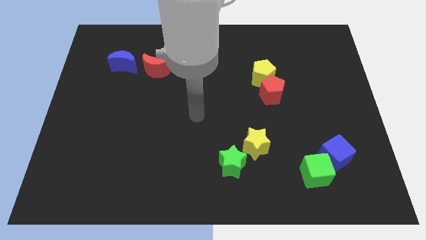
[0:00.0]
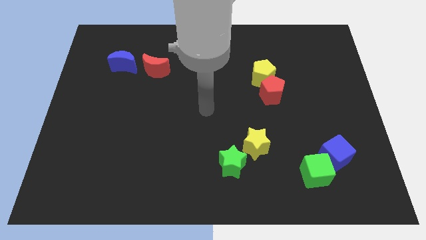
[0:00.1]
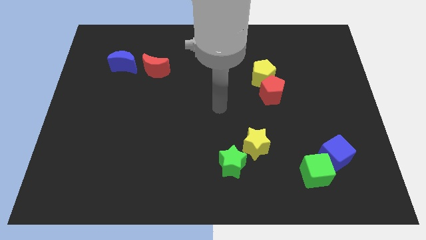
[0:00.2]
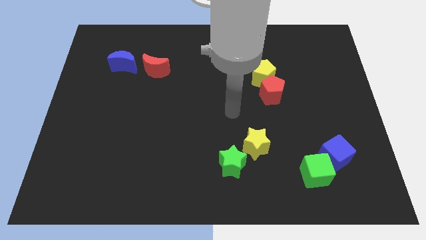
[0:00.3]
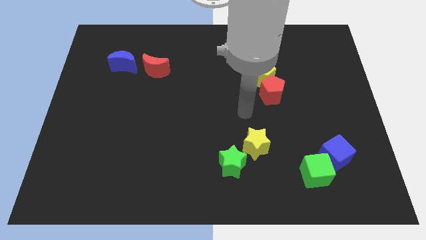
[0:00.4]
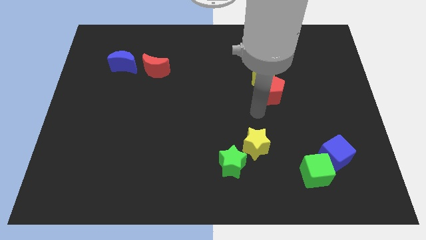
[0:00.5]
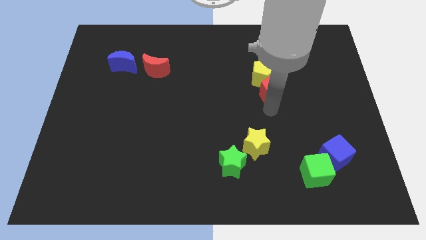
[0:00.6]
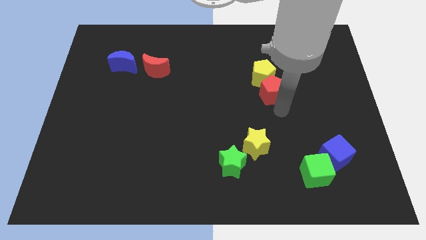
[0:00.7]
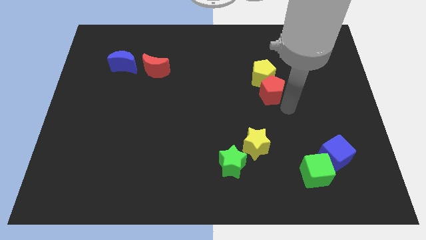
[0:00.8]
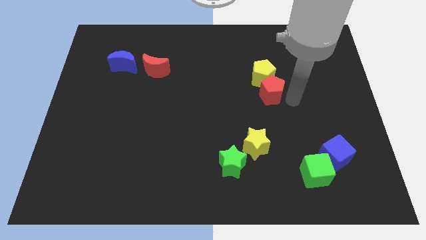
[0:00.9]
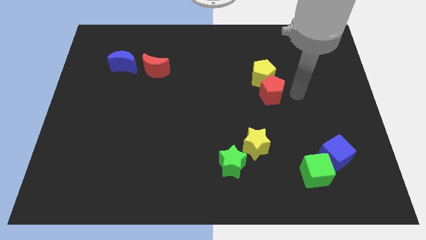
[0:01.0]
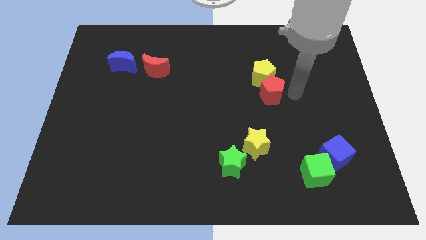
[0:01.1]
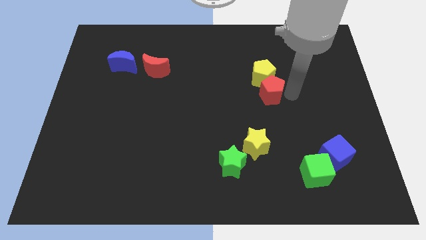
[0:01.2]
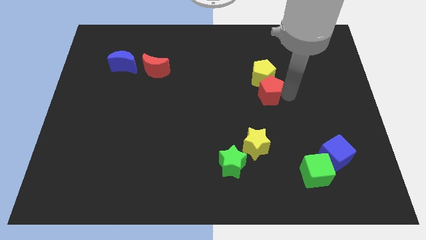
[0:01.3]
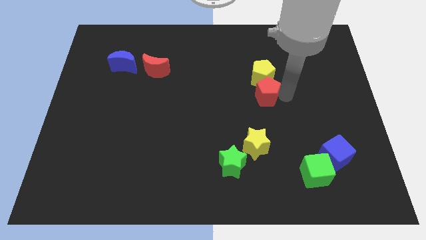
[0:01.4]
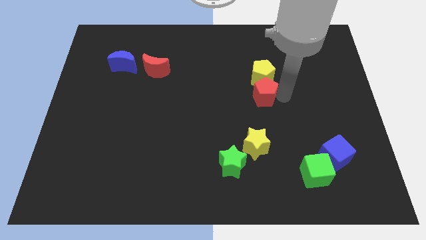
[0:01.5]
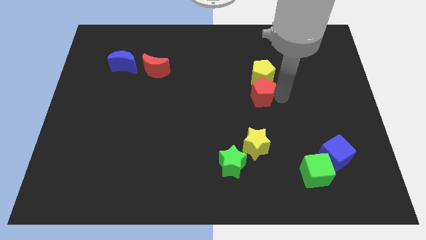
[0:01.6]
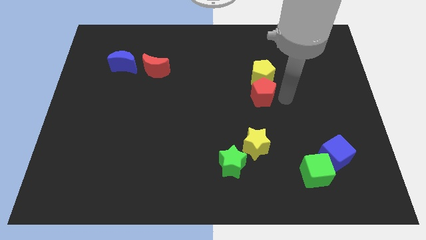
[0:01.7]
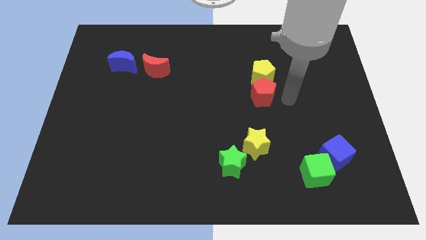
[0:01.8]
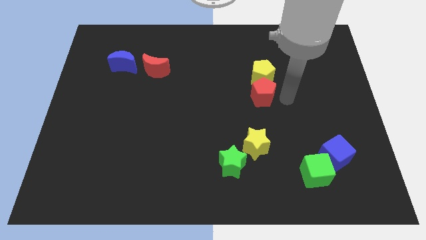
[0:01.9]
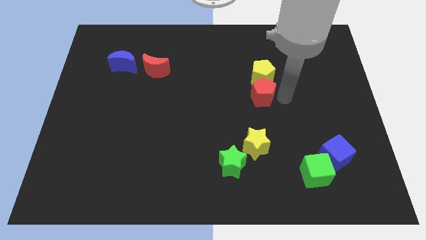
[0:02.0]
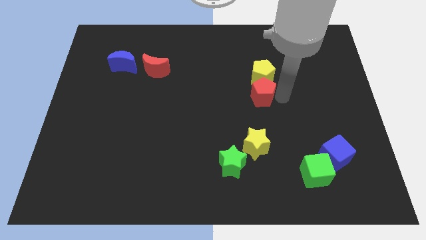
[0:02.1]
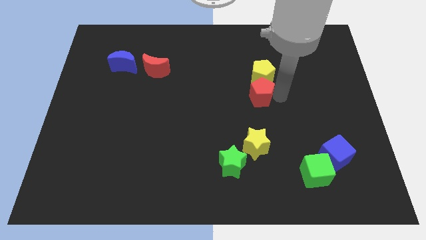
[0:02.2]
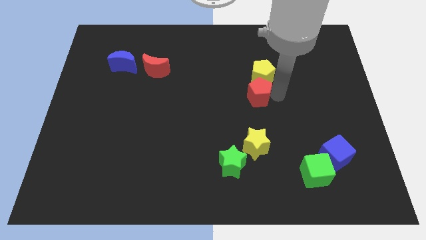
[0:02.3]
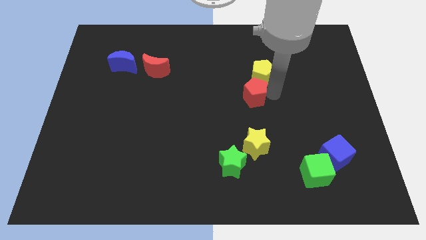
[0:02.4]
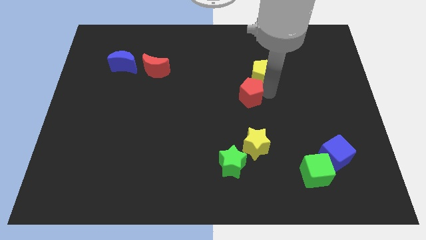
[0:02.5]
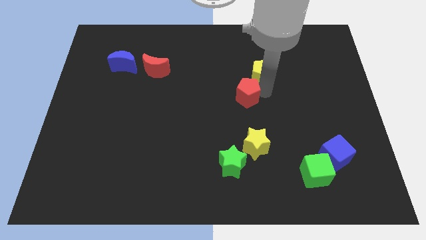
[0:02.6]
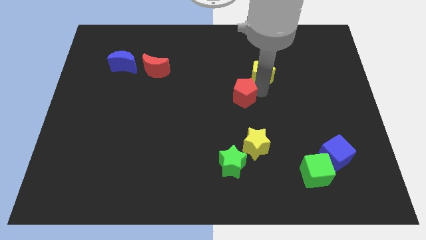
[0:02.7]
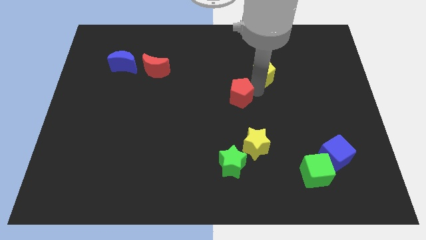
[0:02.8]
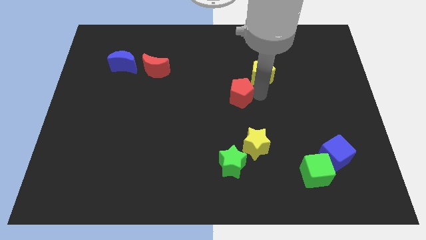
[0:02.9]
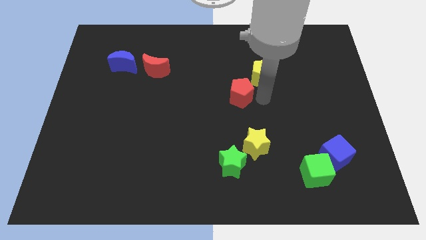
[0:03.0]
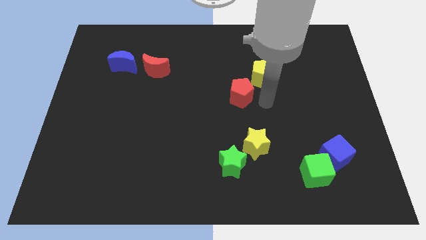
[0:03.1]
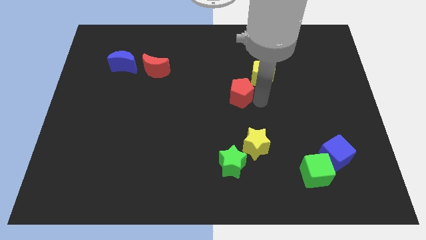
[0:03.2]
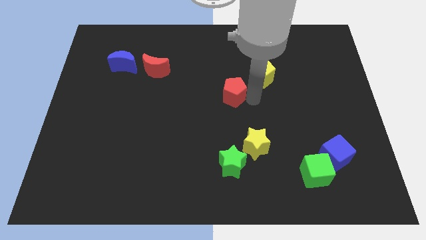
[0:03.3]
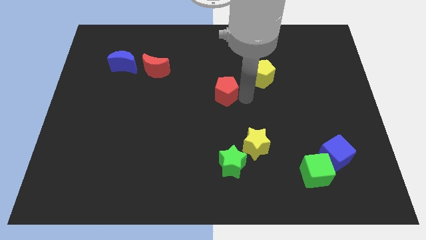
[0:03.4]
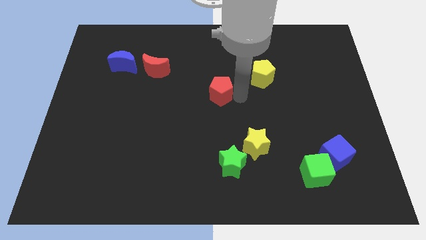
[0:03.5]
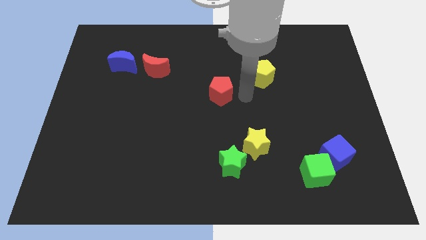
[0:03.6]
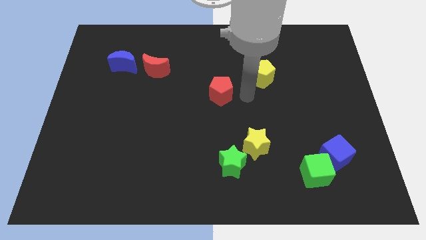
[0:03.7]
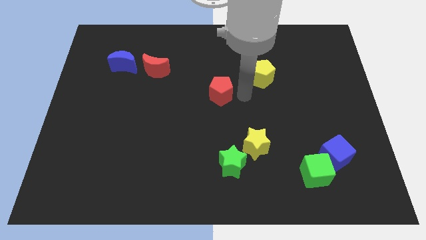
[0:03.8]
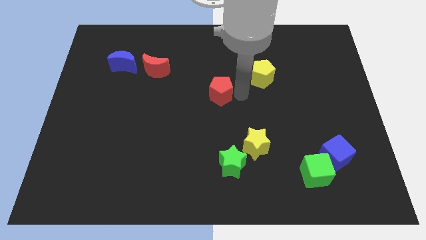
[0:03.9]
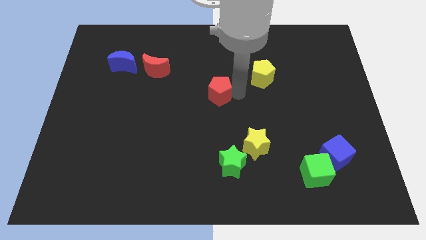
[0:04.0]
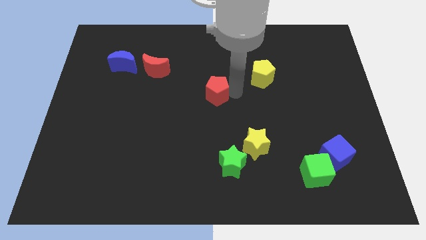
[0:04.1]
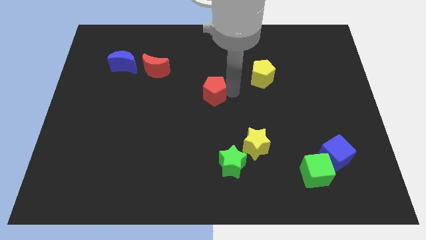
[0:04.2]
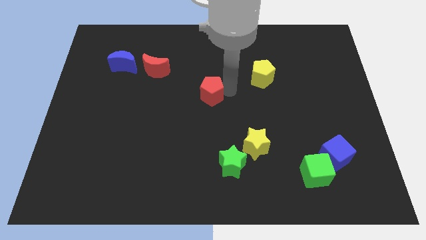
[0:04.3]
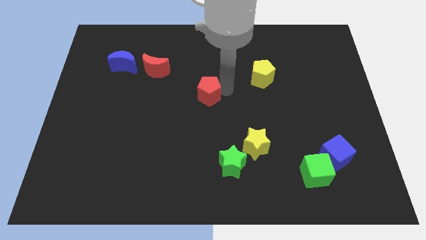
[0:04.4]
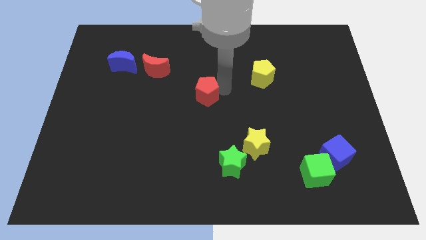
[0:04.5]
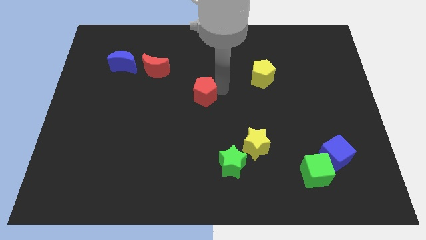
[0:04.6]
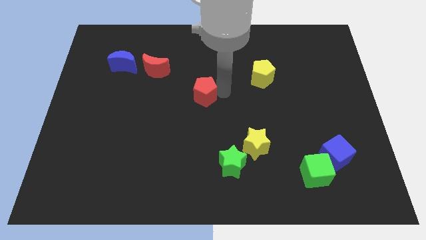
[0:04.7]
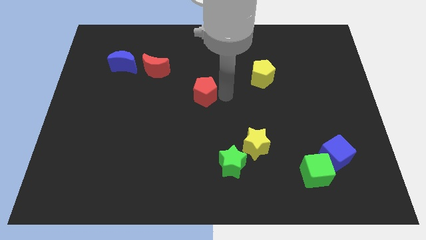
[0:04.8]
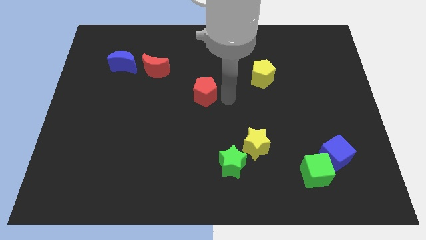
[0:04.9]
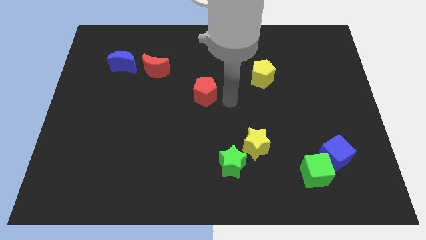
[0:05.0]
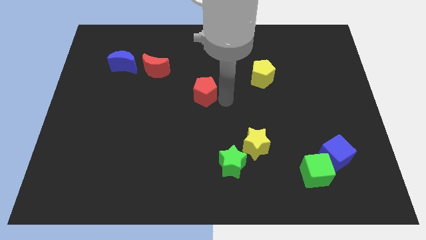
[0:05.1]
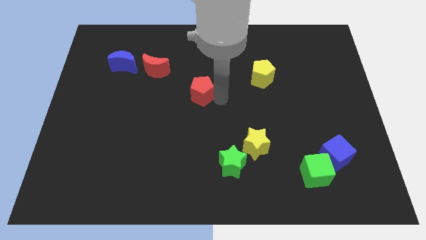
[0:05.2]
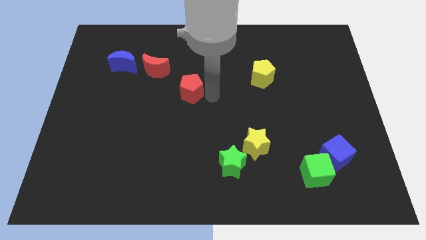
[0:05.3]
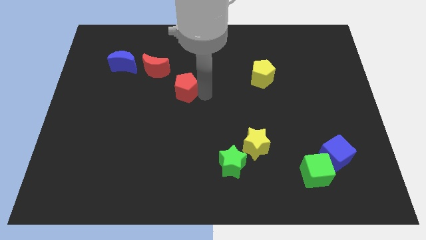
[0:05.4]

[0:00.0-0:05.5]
slide the red pentagon to the left

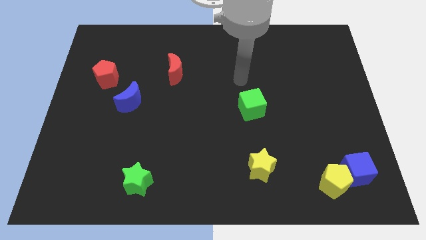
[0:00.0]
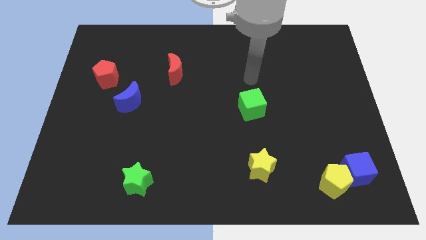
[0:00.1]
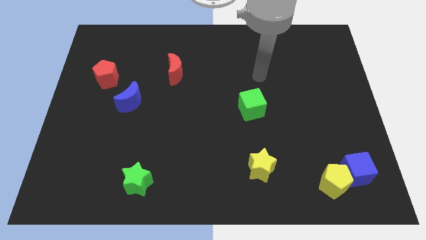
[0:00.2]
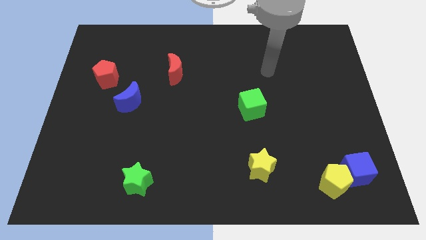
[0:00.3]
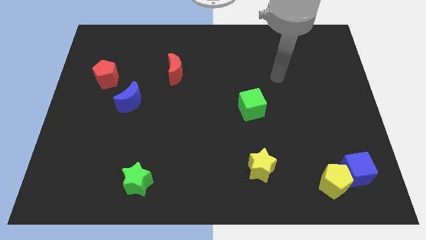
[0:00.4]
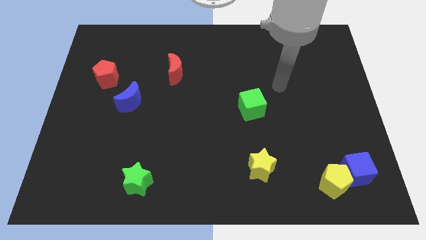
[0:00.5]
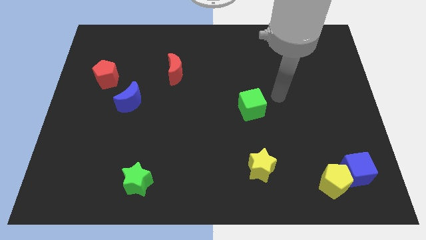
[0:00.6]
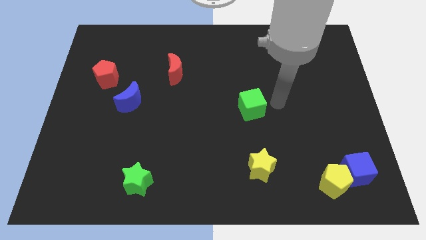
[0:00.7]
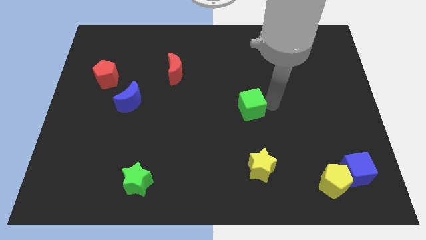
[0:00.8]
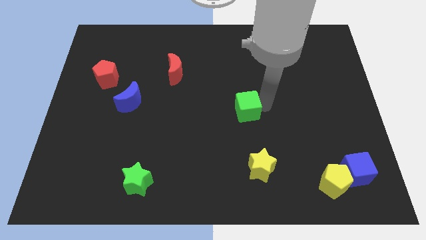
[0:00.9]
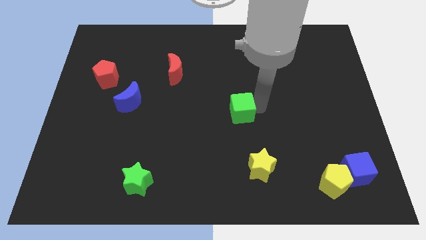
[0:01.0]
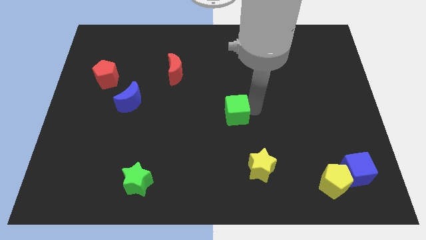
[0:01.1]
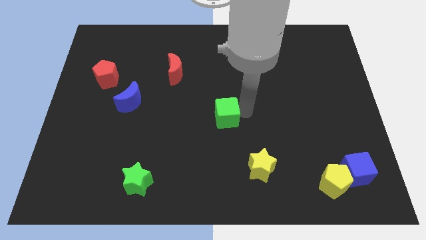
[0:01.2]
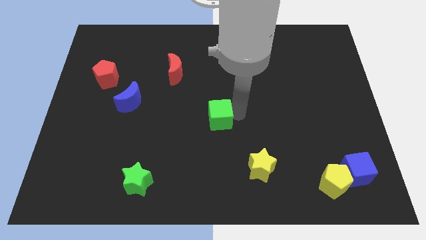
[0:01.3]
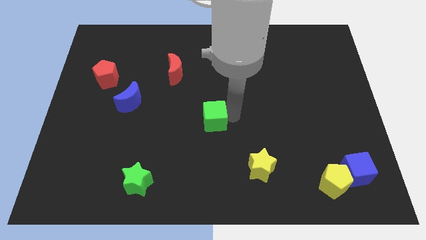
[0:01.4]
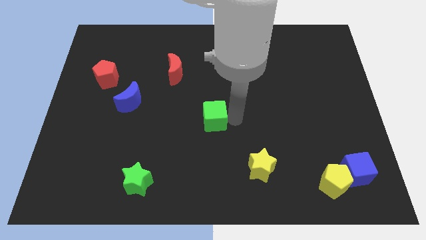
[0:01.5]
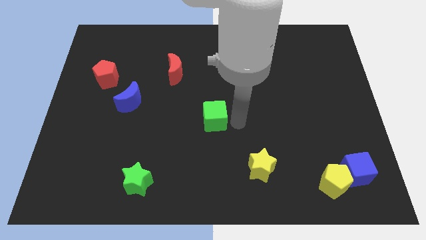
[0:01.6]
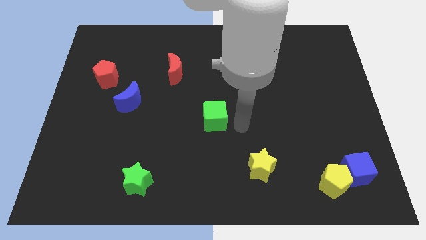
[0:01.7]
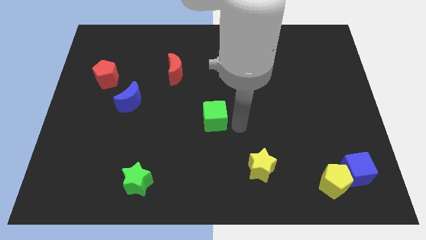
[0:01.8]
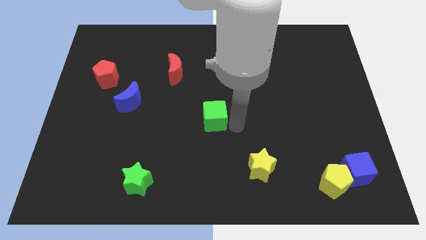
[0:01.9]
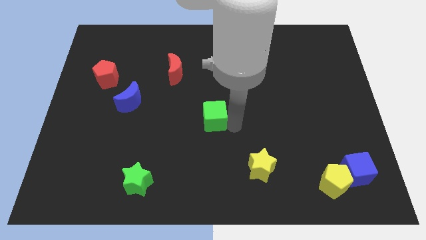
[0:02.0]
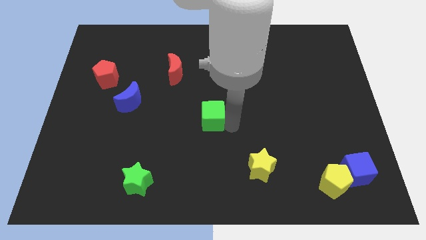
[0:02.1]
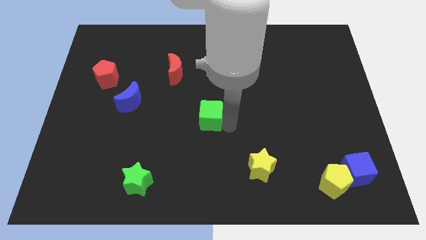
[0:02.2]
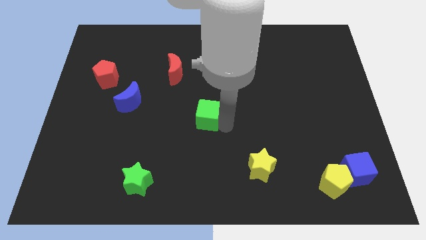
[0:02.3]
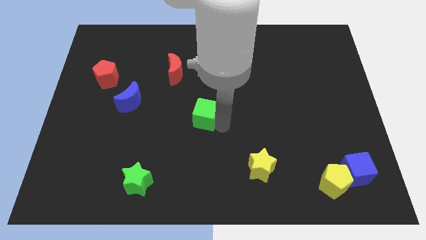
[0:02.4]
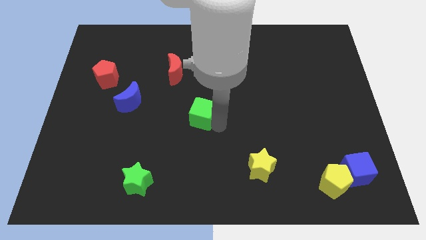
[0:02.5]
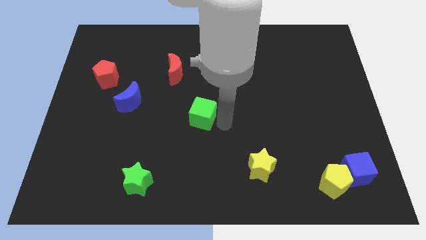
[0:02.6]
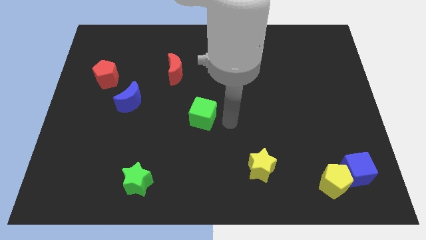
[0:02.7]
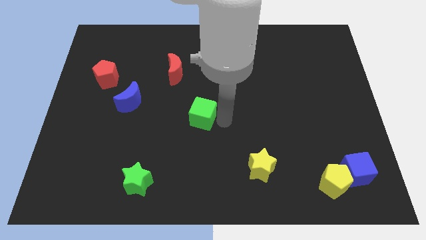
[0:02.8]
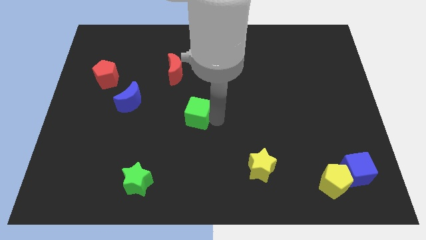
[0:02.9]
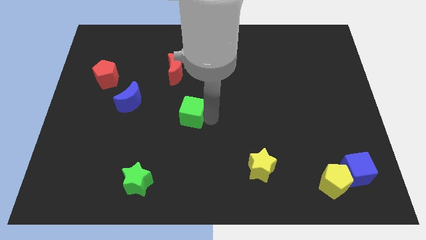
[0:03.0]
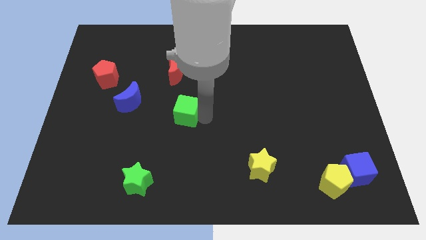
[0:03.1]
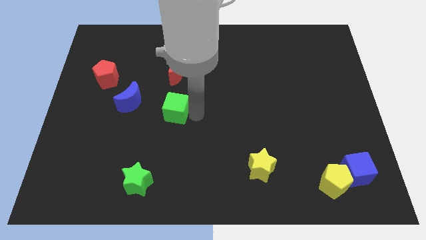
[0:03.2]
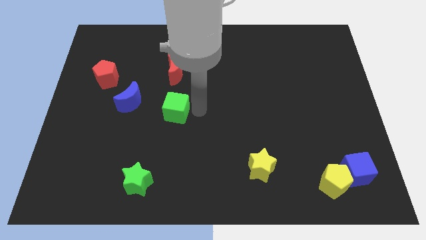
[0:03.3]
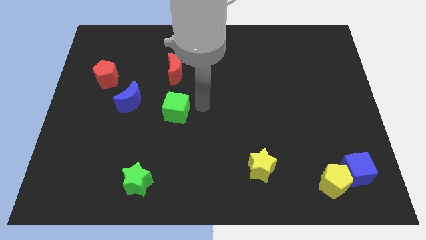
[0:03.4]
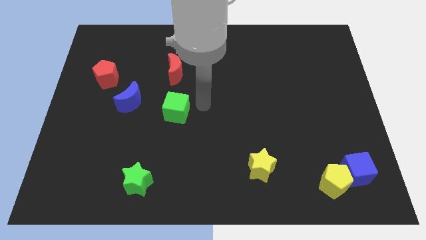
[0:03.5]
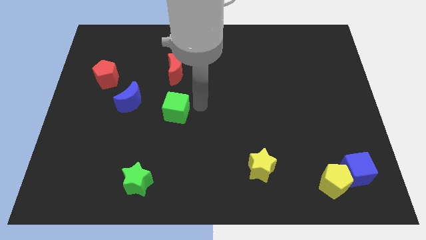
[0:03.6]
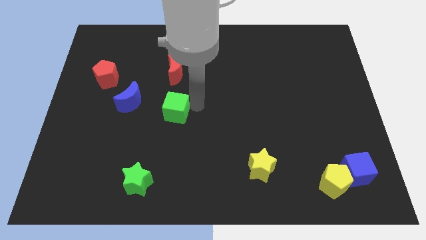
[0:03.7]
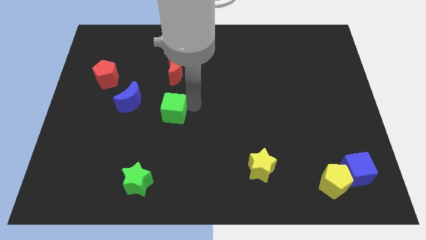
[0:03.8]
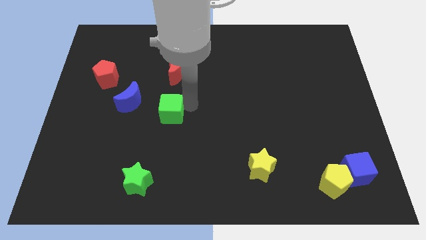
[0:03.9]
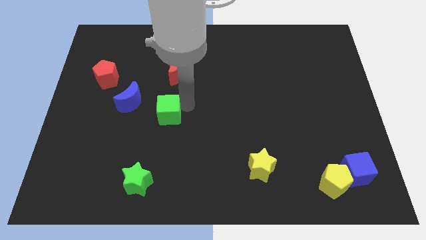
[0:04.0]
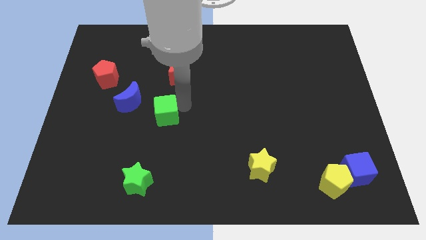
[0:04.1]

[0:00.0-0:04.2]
push the green cube left
